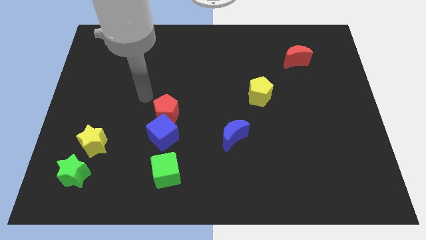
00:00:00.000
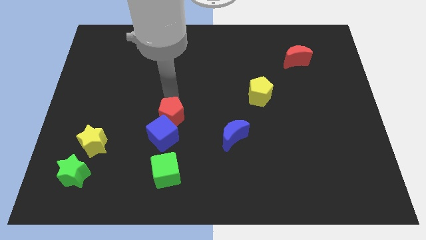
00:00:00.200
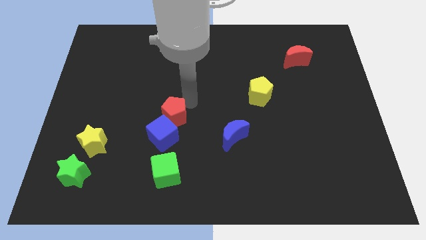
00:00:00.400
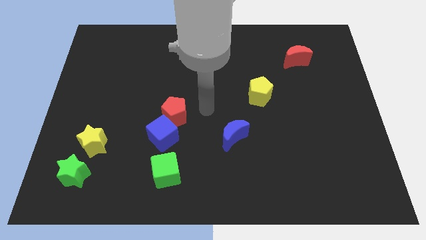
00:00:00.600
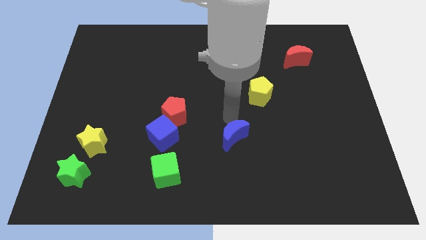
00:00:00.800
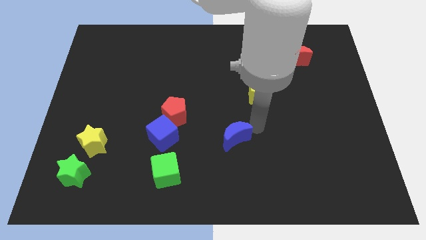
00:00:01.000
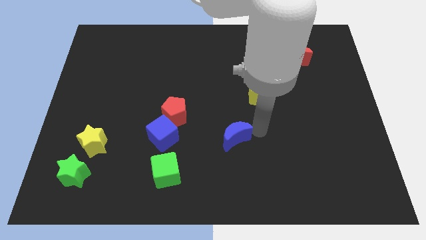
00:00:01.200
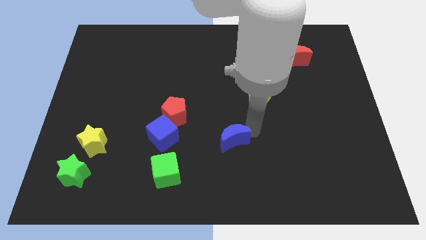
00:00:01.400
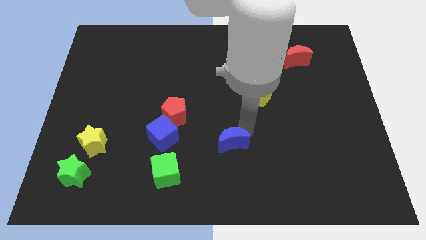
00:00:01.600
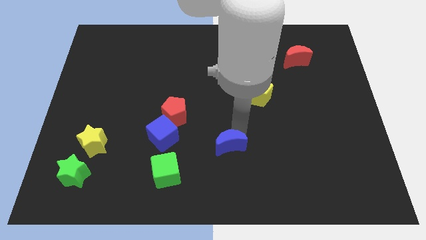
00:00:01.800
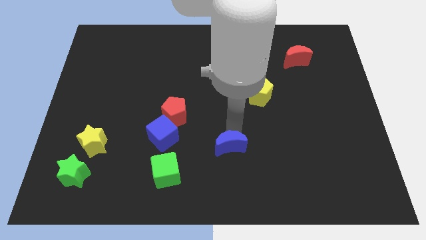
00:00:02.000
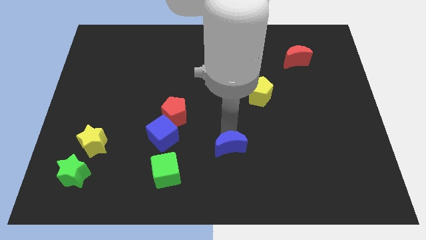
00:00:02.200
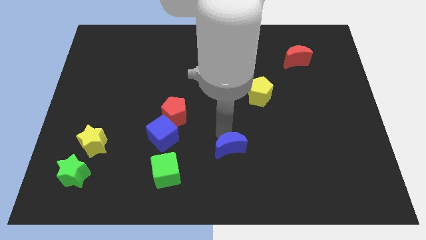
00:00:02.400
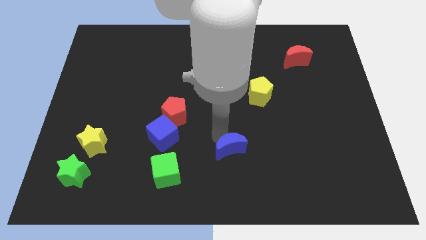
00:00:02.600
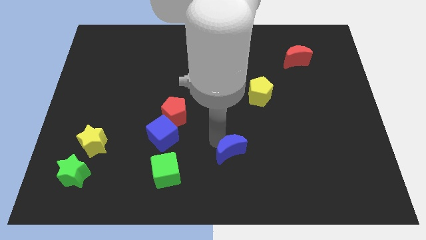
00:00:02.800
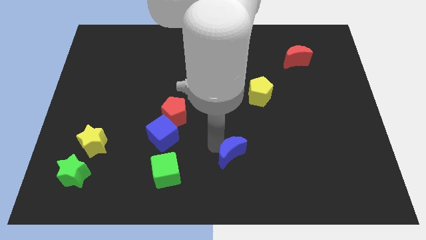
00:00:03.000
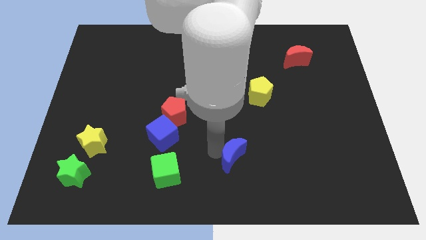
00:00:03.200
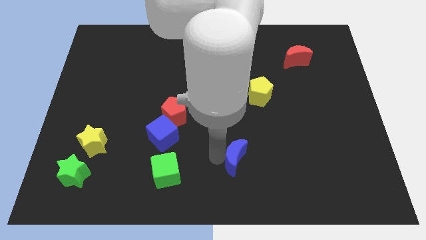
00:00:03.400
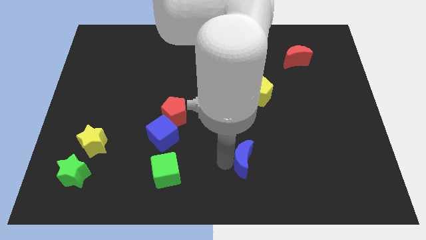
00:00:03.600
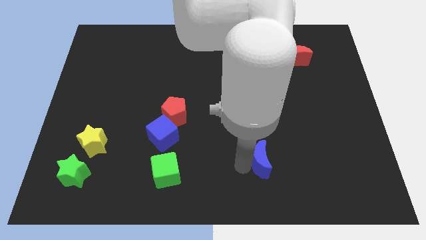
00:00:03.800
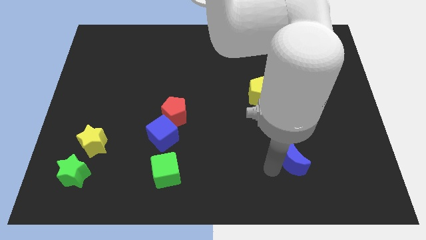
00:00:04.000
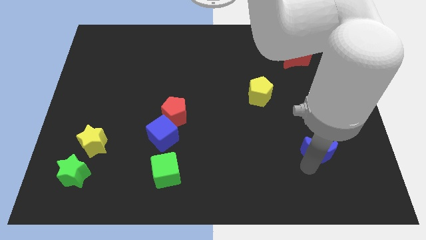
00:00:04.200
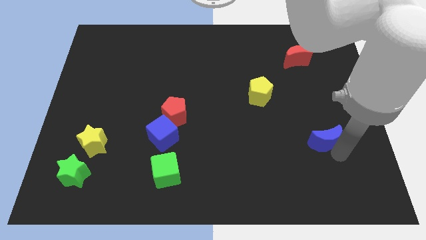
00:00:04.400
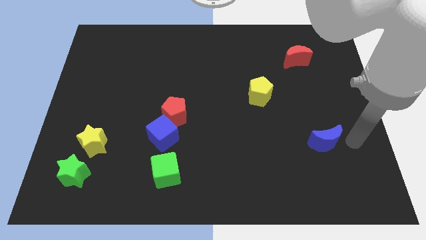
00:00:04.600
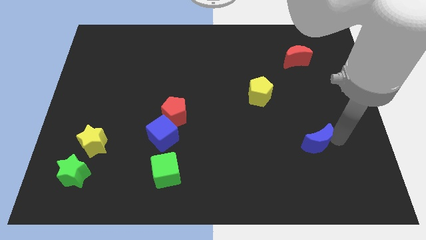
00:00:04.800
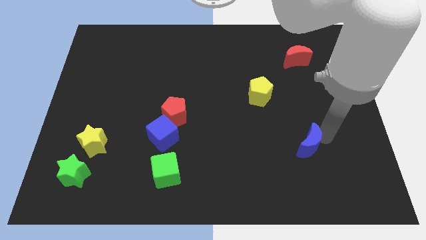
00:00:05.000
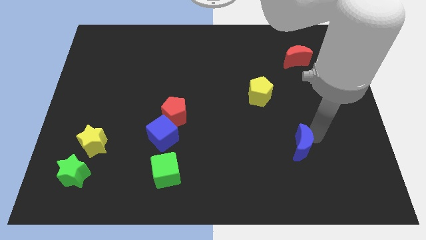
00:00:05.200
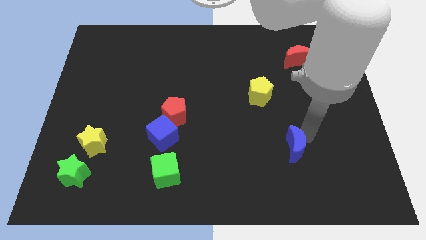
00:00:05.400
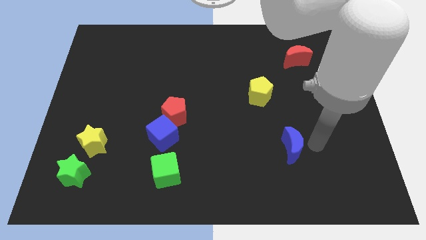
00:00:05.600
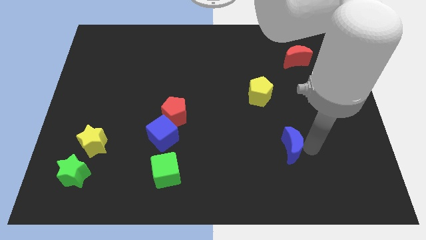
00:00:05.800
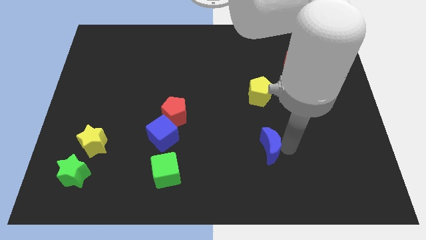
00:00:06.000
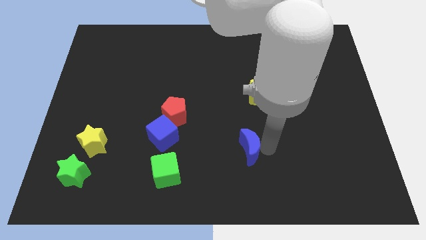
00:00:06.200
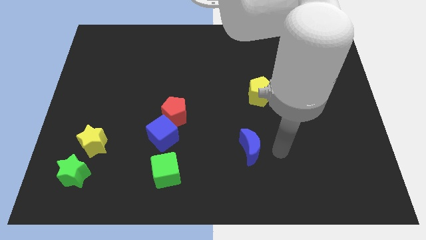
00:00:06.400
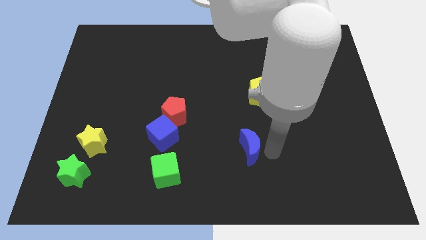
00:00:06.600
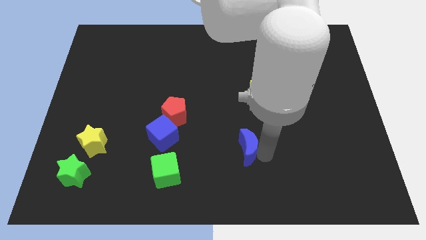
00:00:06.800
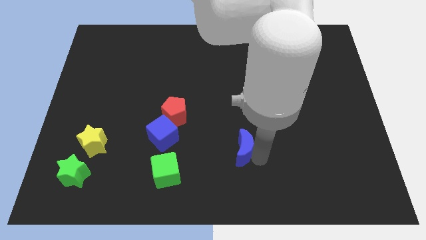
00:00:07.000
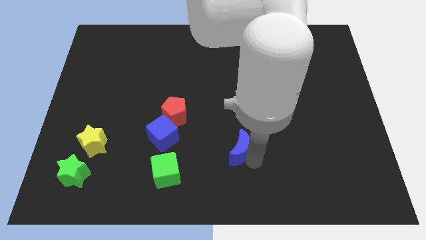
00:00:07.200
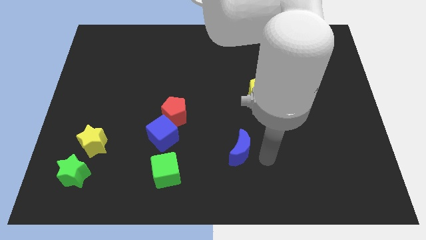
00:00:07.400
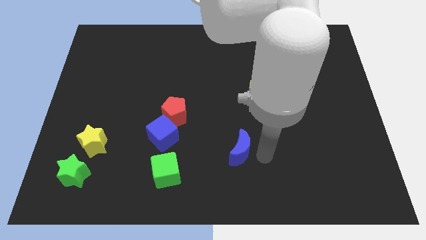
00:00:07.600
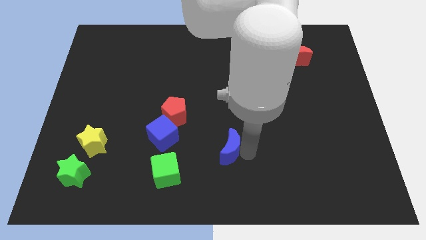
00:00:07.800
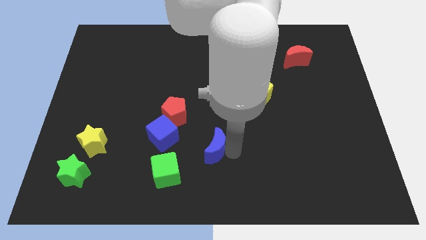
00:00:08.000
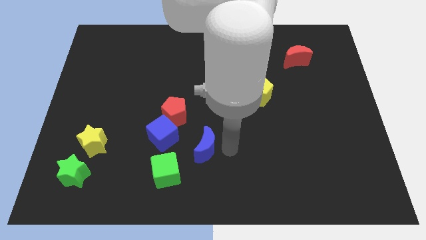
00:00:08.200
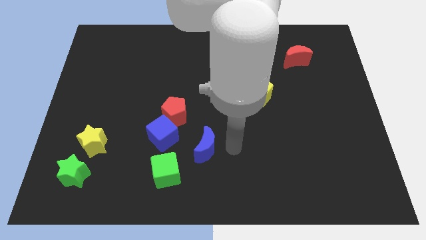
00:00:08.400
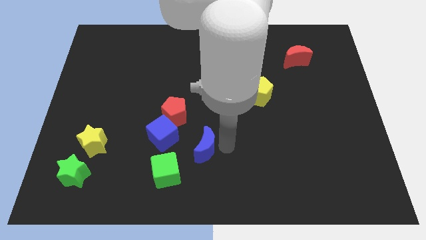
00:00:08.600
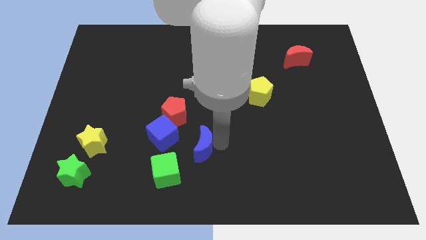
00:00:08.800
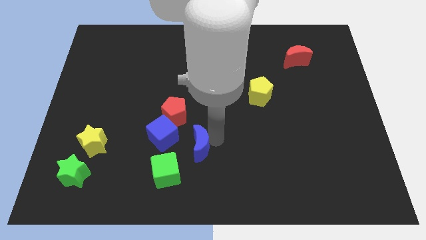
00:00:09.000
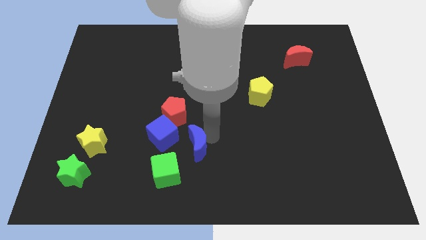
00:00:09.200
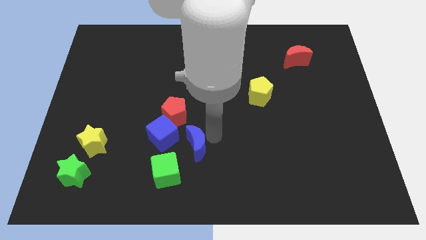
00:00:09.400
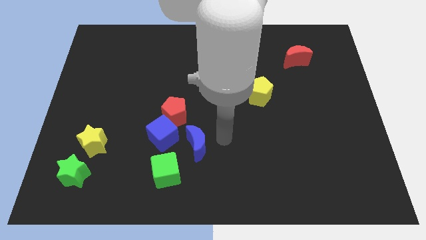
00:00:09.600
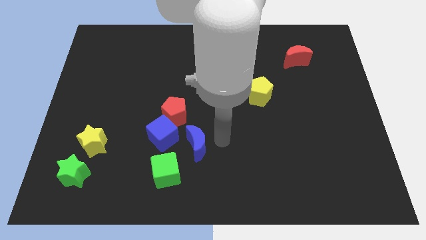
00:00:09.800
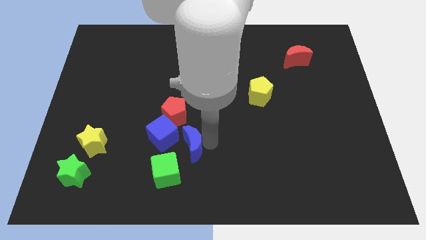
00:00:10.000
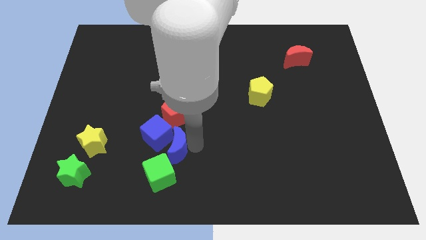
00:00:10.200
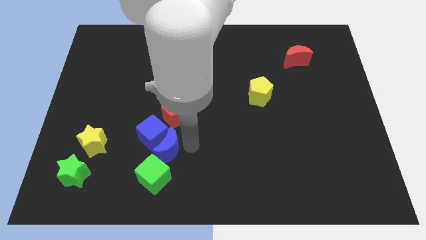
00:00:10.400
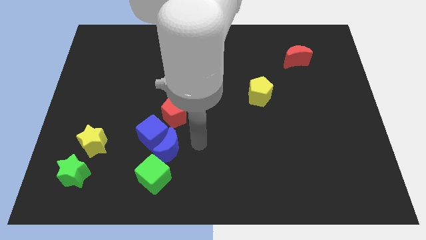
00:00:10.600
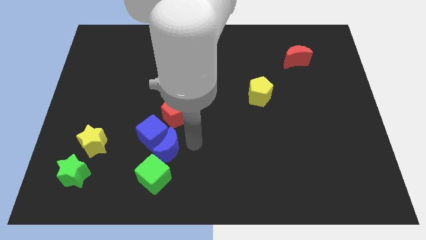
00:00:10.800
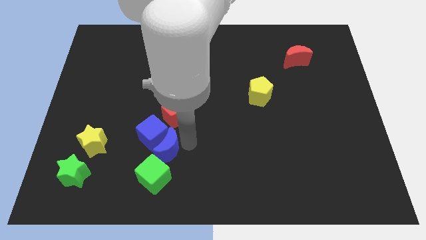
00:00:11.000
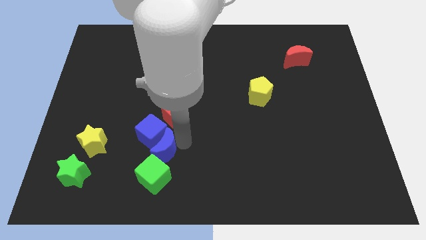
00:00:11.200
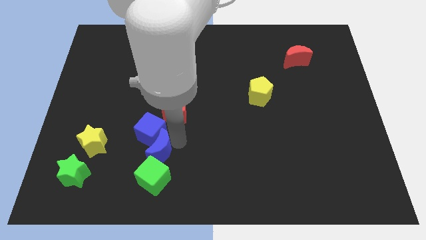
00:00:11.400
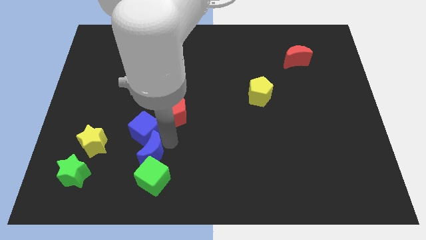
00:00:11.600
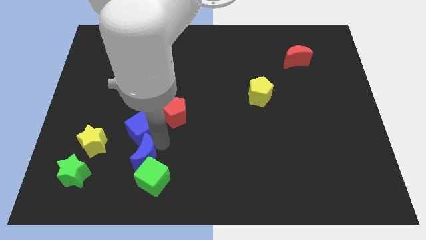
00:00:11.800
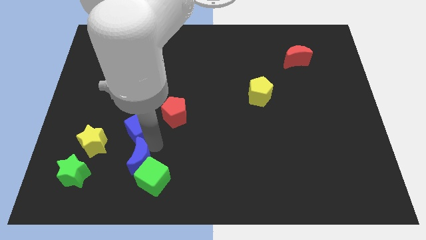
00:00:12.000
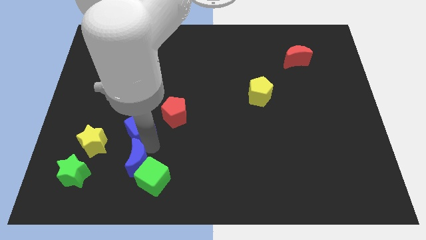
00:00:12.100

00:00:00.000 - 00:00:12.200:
push the blue moon to the bottom right of the yellow star

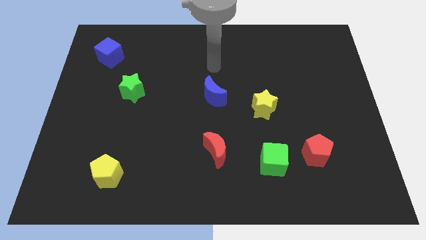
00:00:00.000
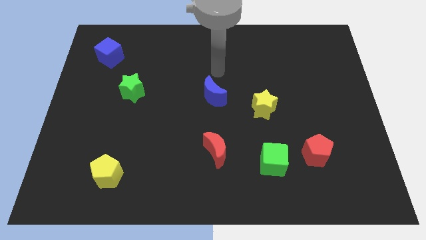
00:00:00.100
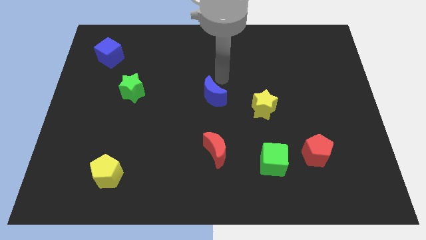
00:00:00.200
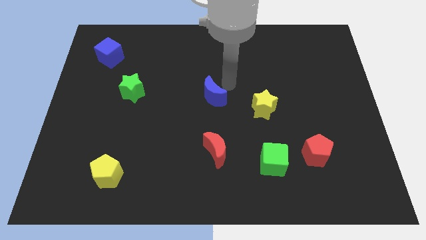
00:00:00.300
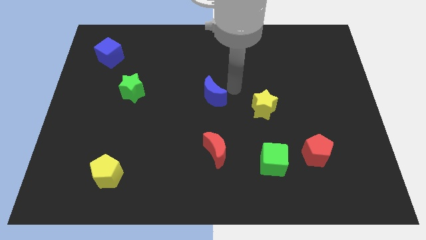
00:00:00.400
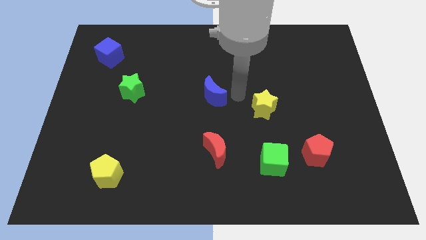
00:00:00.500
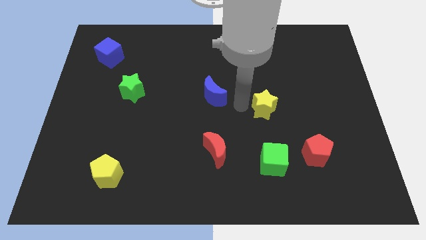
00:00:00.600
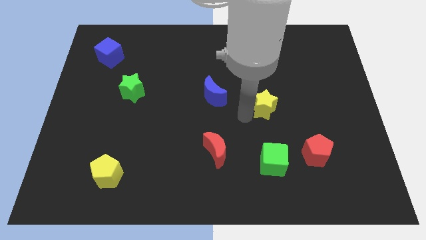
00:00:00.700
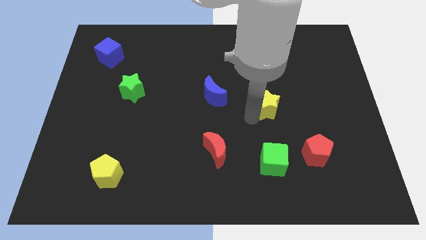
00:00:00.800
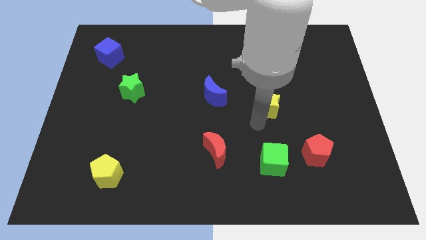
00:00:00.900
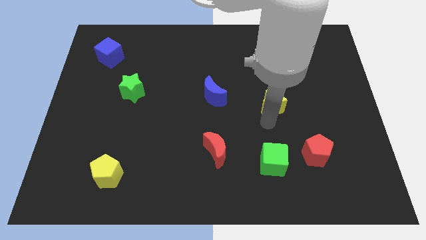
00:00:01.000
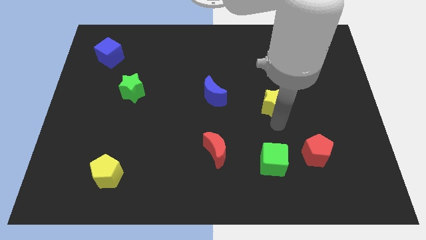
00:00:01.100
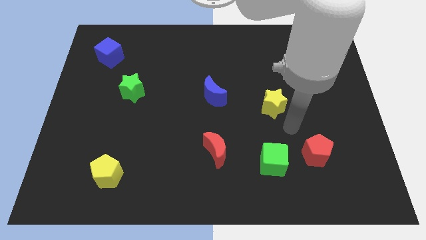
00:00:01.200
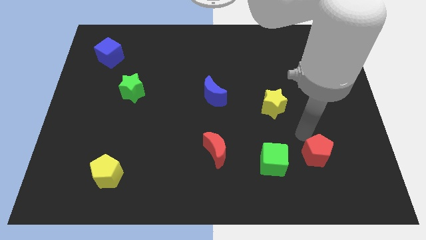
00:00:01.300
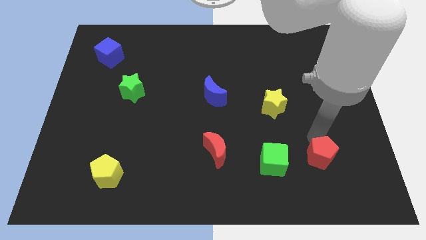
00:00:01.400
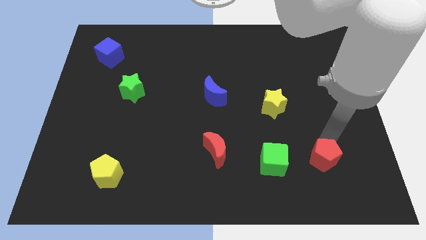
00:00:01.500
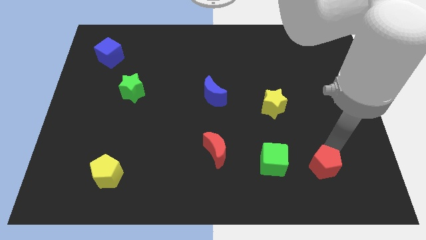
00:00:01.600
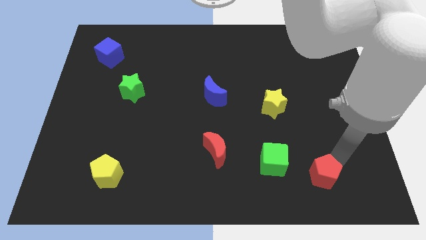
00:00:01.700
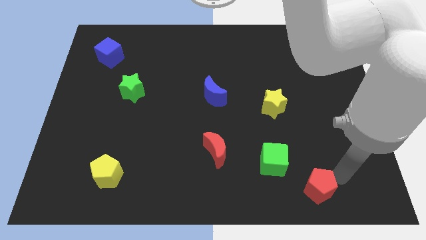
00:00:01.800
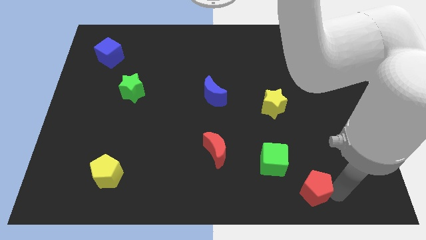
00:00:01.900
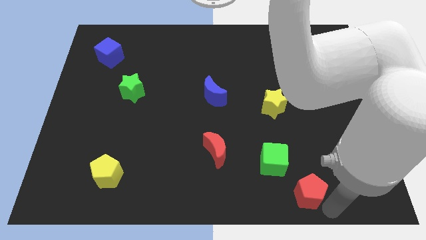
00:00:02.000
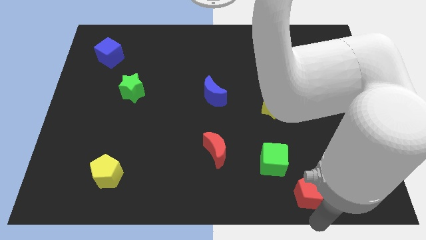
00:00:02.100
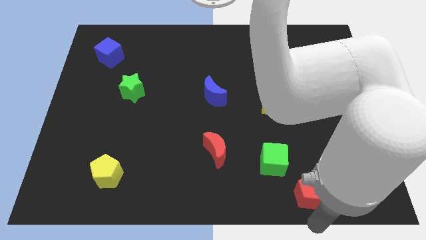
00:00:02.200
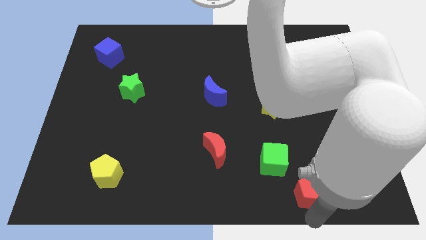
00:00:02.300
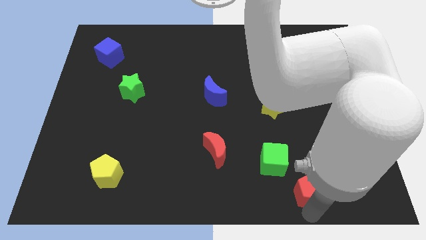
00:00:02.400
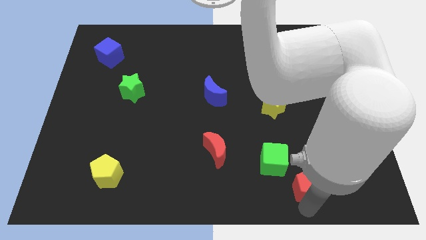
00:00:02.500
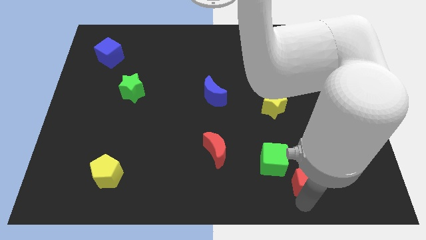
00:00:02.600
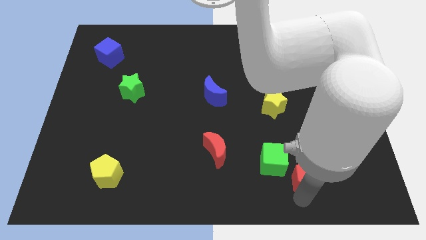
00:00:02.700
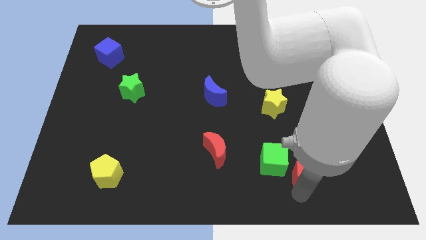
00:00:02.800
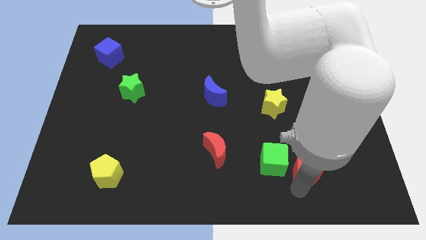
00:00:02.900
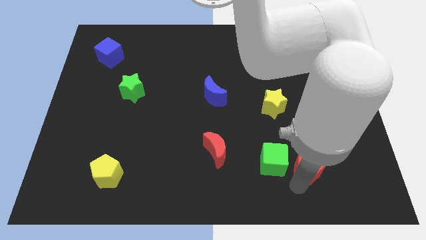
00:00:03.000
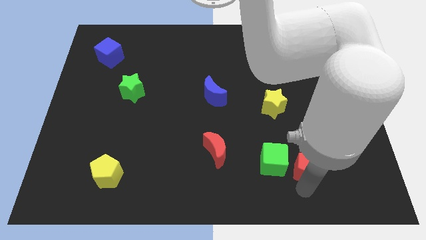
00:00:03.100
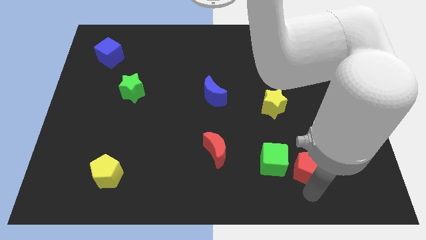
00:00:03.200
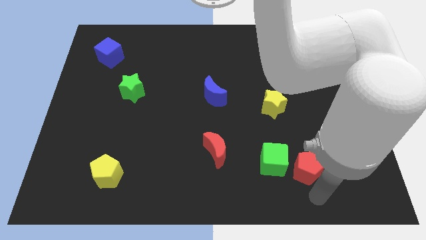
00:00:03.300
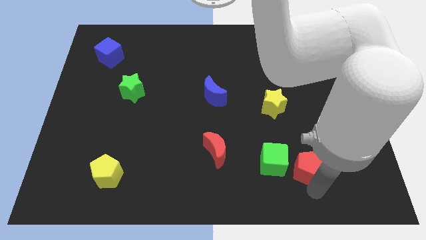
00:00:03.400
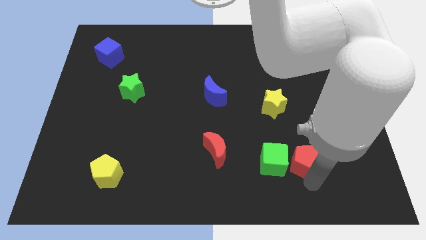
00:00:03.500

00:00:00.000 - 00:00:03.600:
move the red pentagon diagonally up and to the right of the green cube
